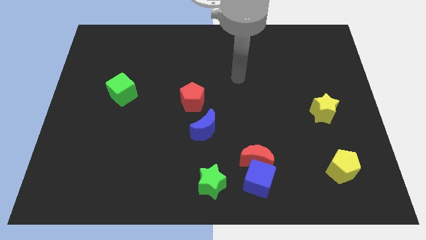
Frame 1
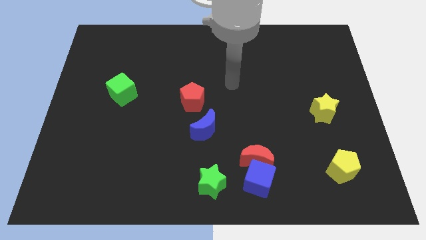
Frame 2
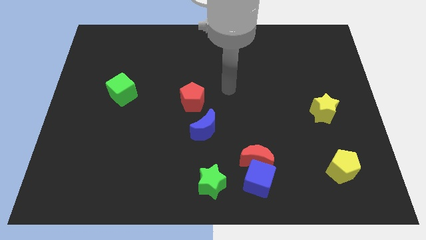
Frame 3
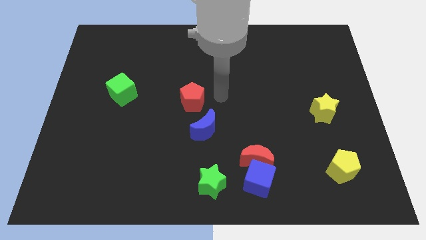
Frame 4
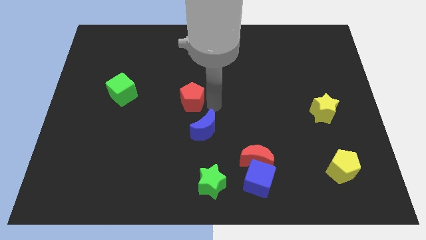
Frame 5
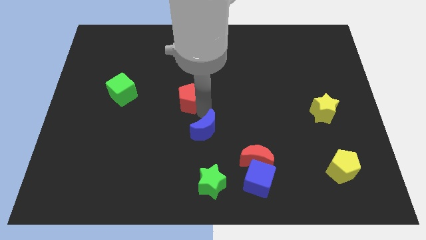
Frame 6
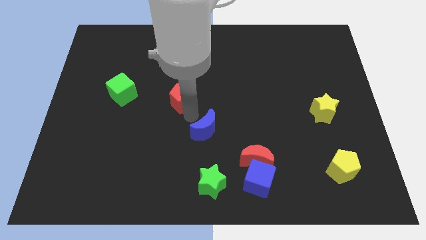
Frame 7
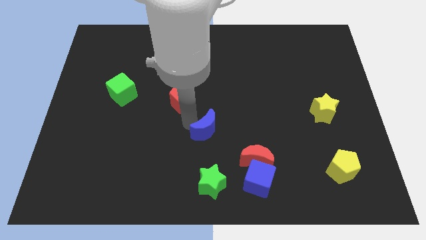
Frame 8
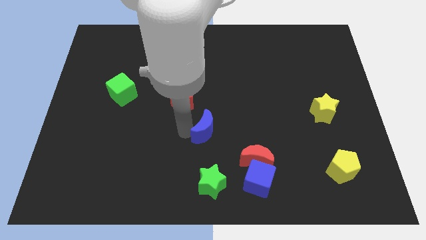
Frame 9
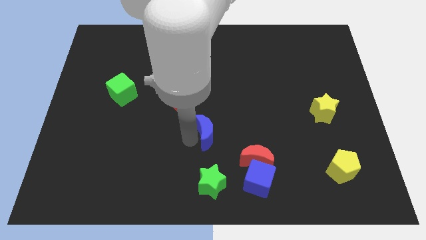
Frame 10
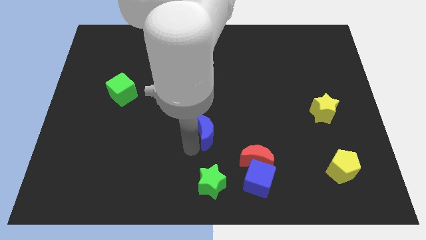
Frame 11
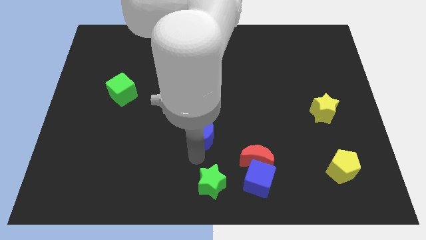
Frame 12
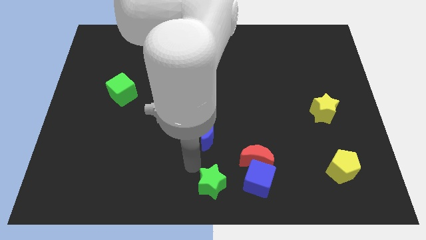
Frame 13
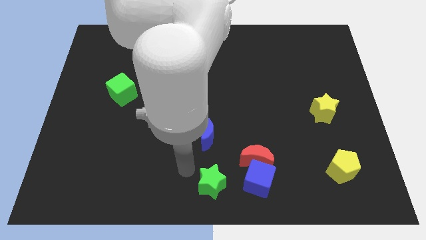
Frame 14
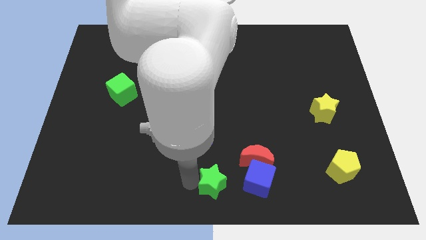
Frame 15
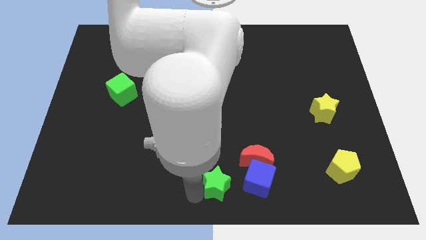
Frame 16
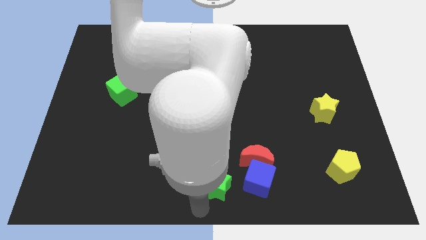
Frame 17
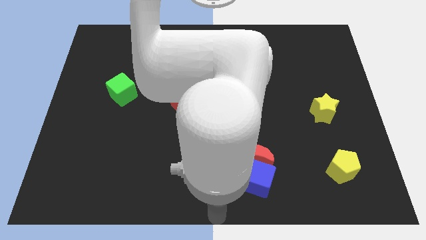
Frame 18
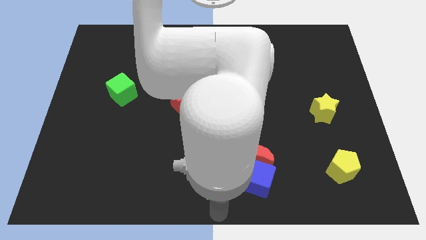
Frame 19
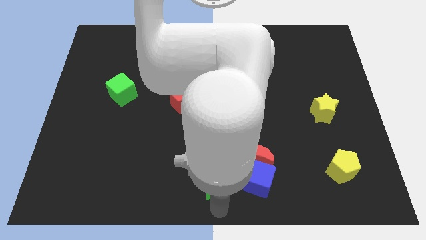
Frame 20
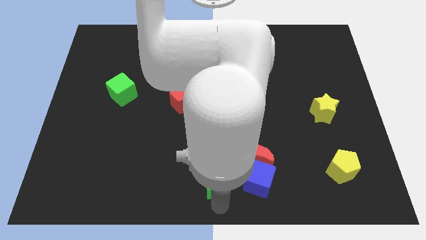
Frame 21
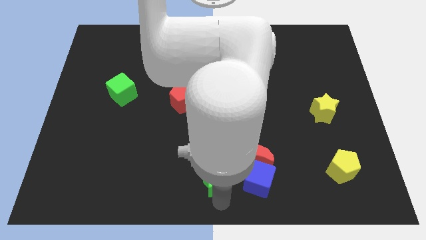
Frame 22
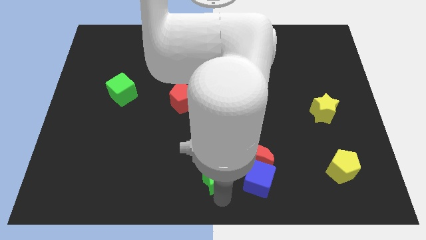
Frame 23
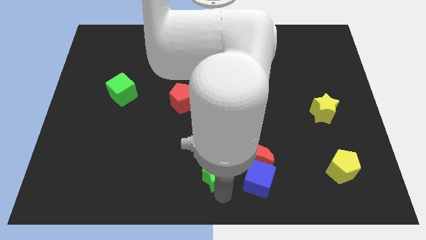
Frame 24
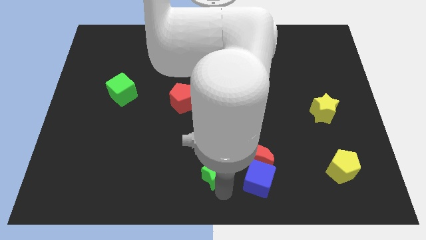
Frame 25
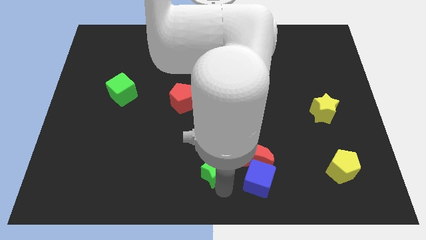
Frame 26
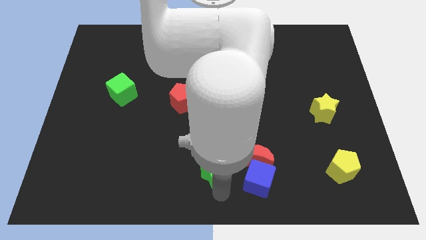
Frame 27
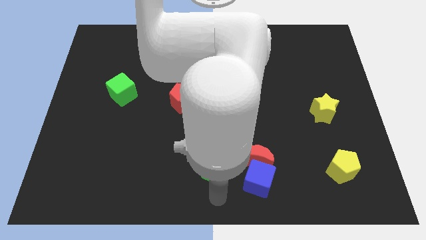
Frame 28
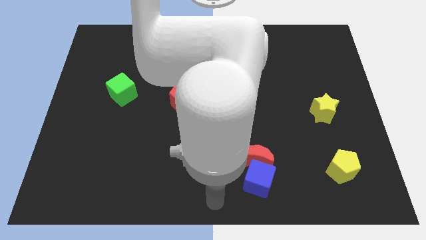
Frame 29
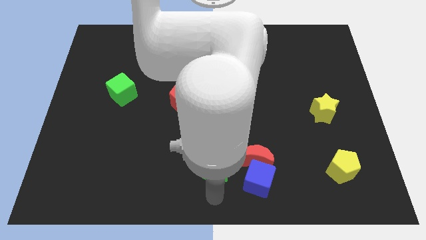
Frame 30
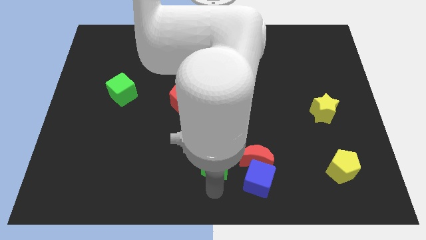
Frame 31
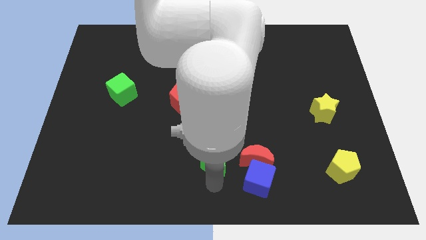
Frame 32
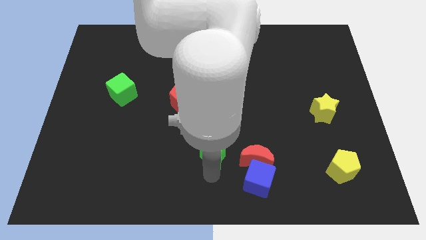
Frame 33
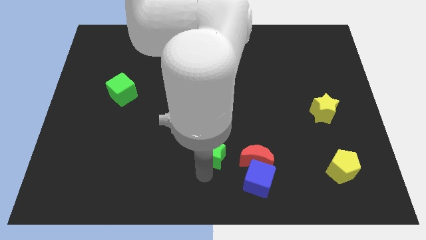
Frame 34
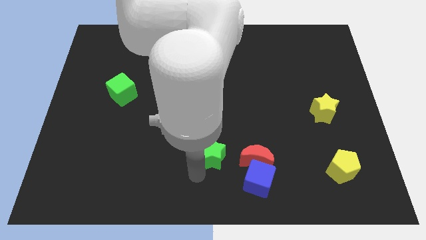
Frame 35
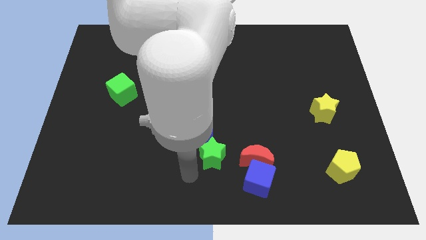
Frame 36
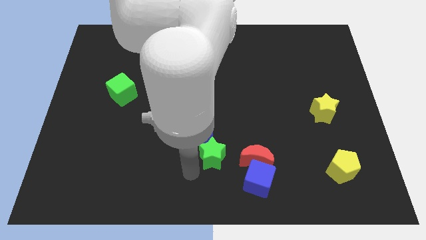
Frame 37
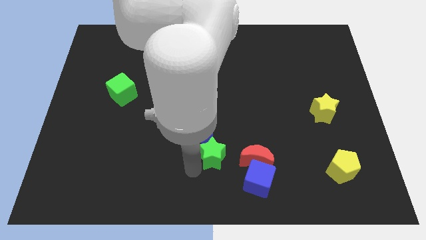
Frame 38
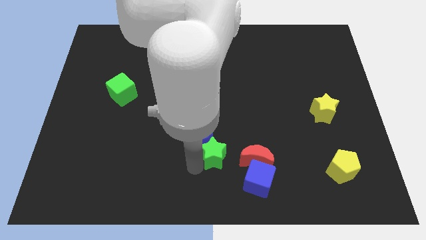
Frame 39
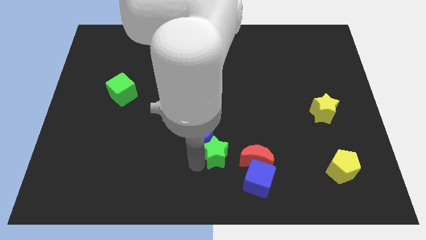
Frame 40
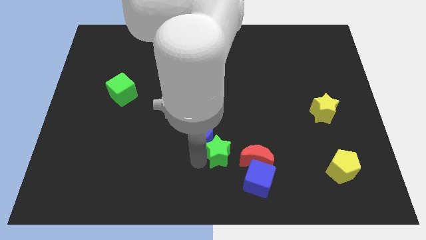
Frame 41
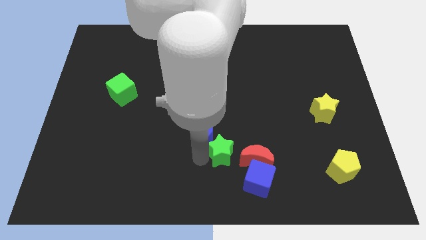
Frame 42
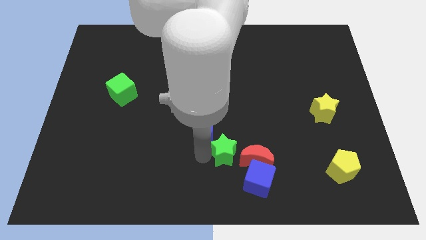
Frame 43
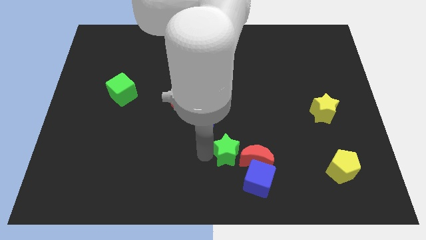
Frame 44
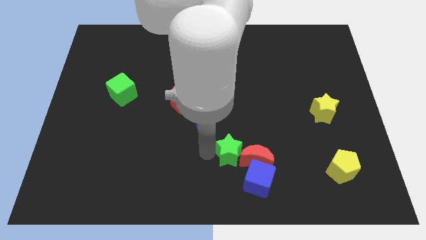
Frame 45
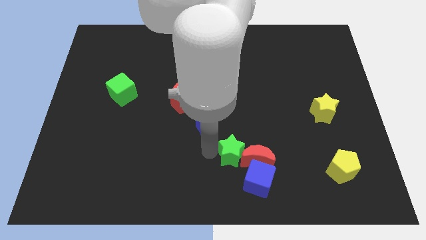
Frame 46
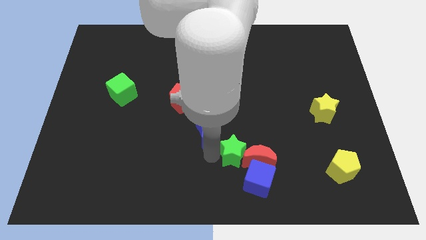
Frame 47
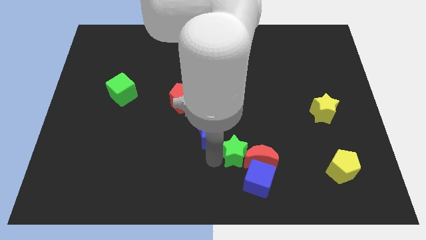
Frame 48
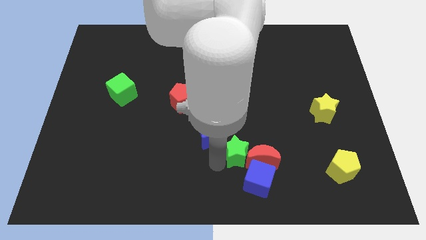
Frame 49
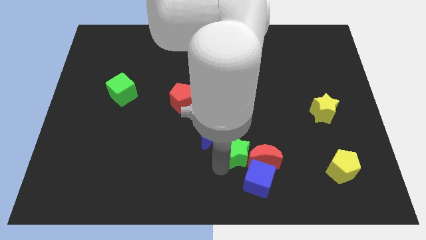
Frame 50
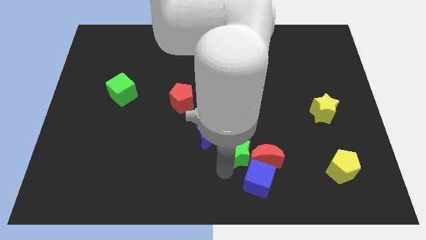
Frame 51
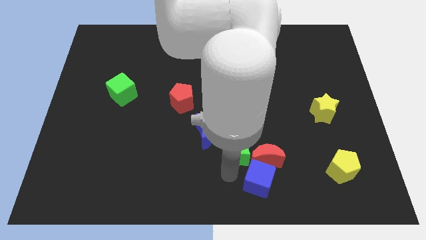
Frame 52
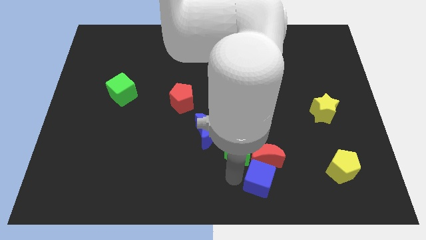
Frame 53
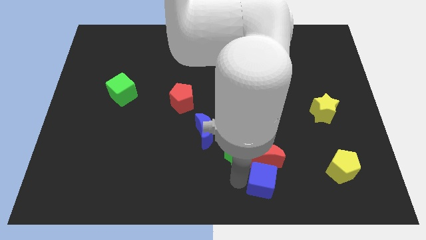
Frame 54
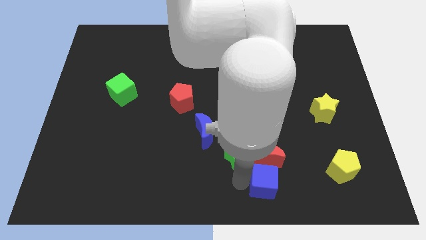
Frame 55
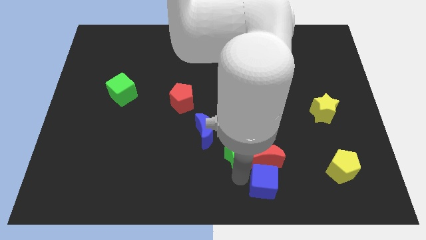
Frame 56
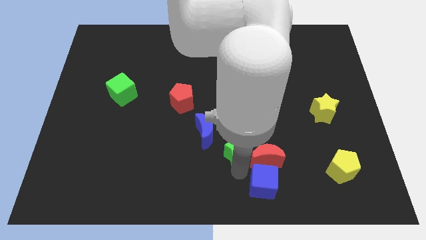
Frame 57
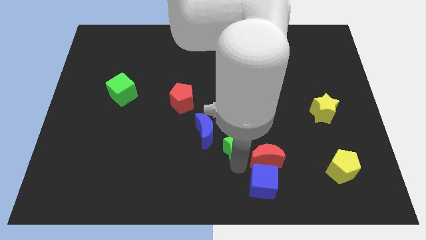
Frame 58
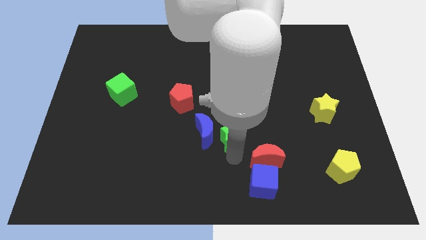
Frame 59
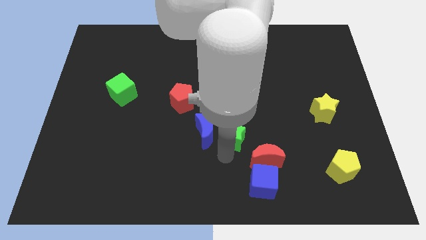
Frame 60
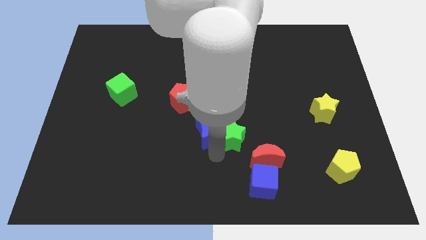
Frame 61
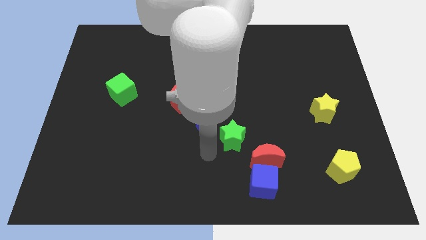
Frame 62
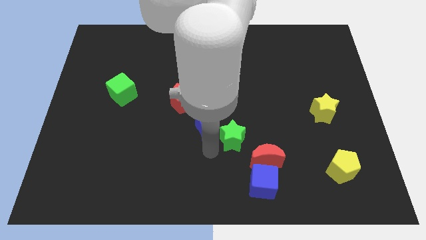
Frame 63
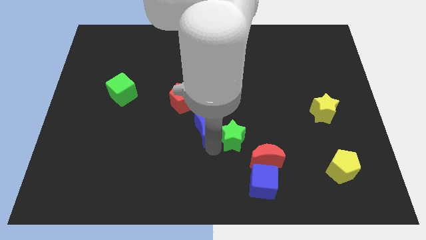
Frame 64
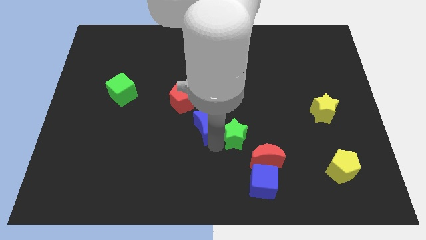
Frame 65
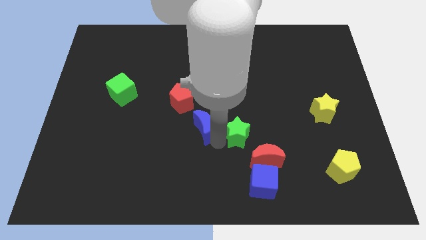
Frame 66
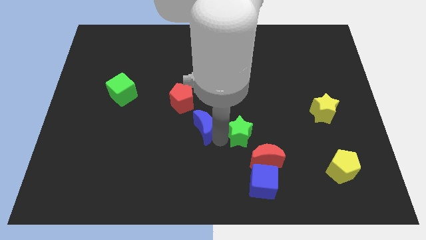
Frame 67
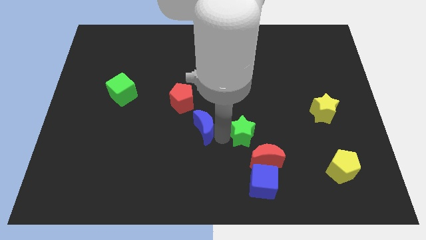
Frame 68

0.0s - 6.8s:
move the green star to the top side of the red moon
